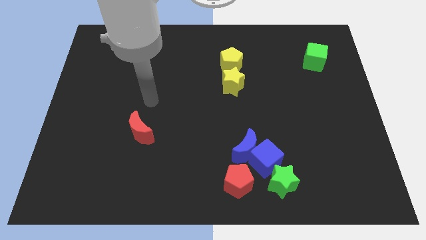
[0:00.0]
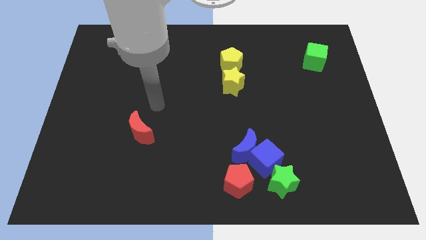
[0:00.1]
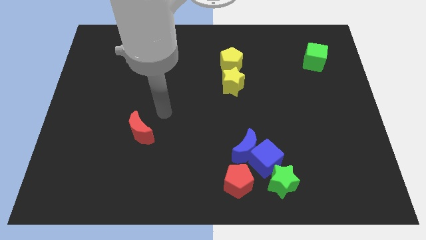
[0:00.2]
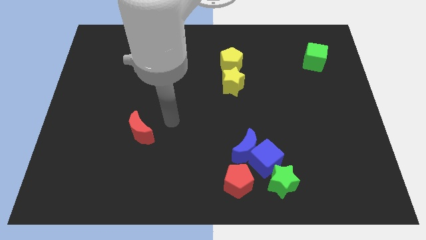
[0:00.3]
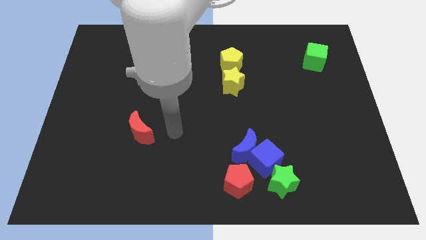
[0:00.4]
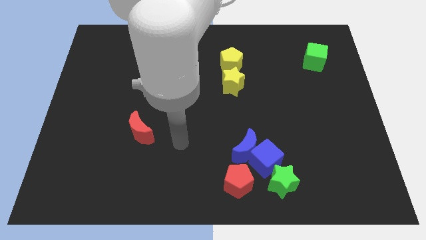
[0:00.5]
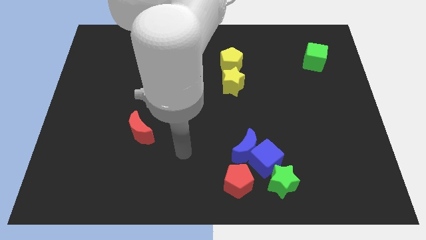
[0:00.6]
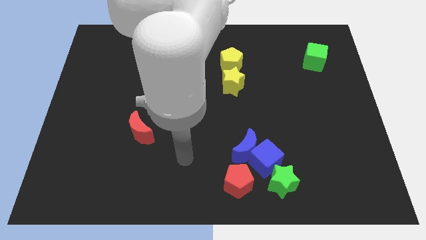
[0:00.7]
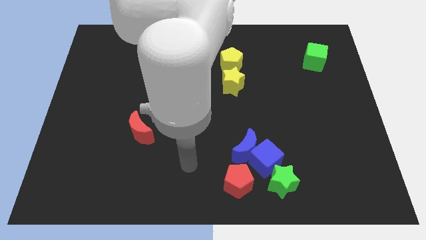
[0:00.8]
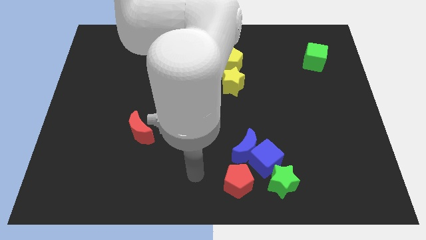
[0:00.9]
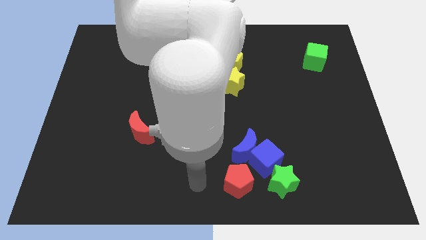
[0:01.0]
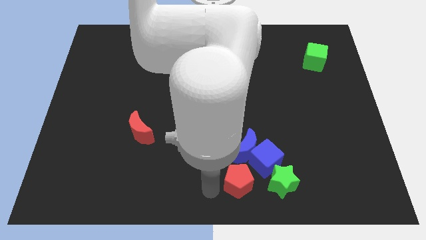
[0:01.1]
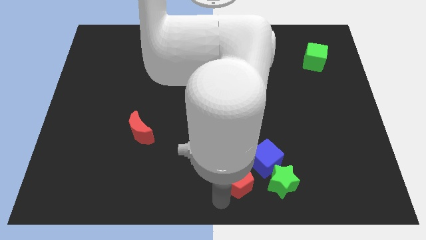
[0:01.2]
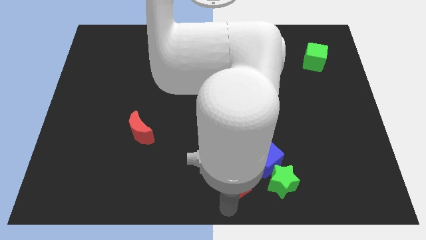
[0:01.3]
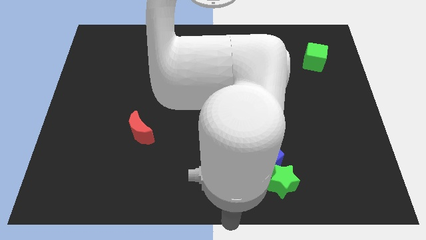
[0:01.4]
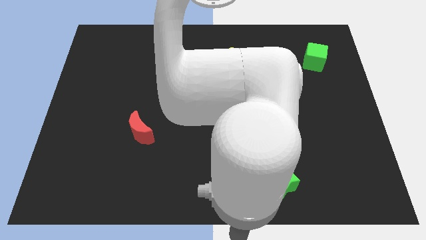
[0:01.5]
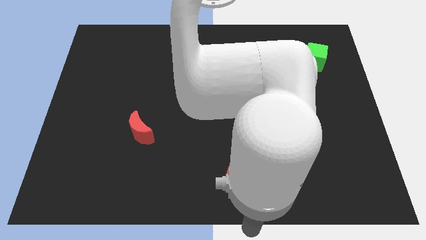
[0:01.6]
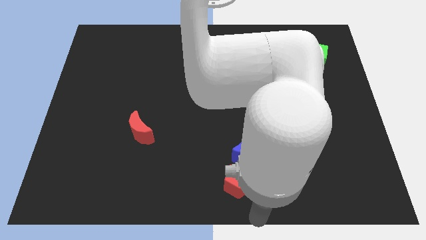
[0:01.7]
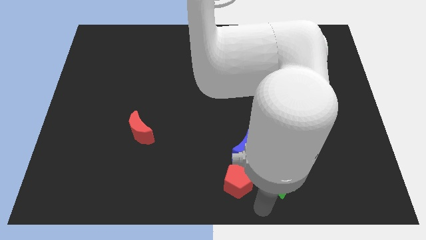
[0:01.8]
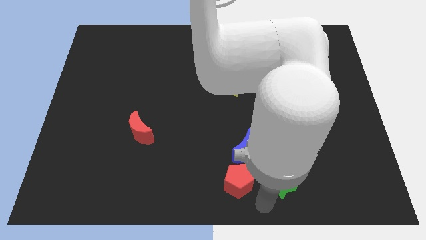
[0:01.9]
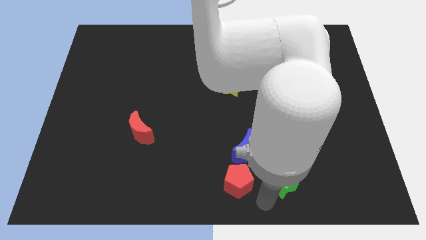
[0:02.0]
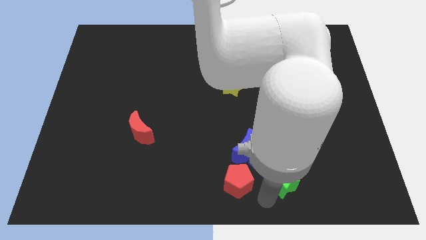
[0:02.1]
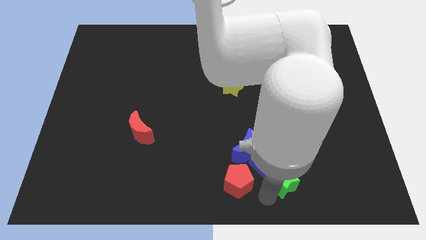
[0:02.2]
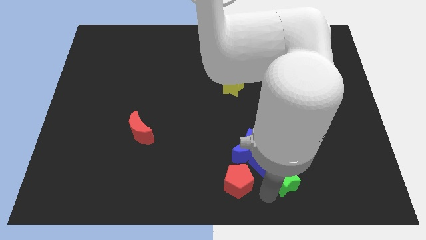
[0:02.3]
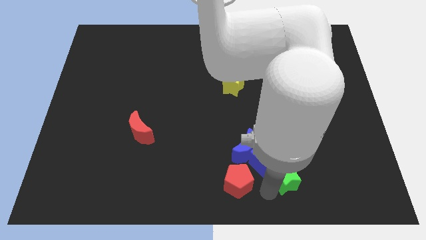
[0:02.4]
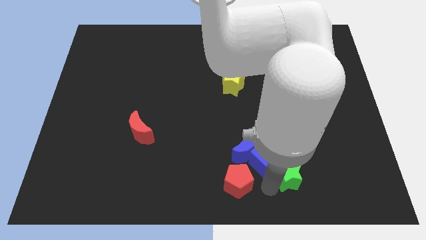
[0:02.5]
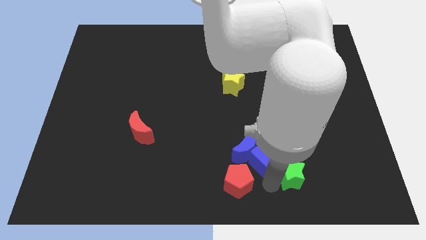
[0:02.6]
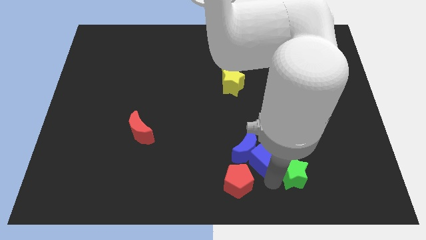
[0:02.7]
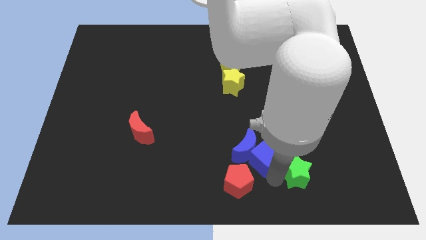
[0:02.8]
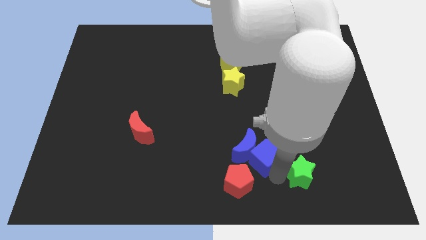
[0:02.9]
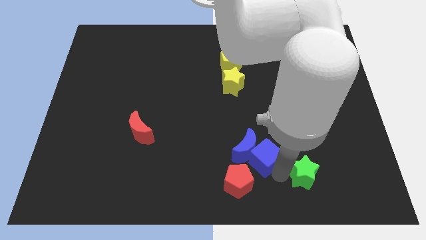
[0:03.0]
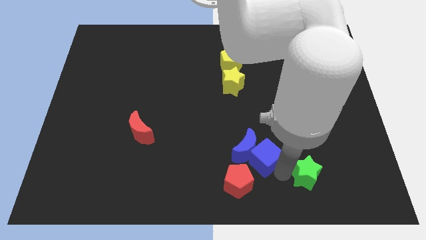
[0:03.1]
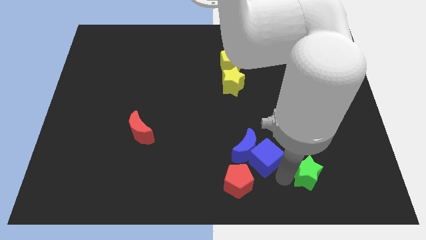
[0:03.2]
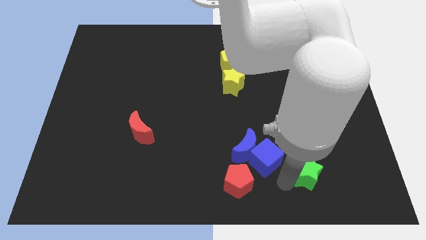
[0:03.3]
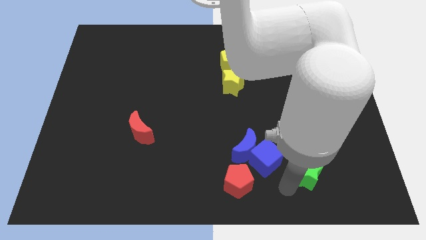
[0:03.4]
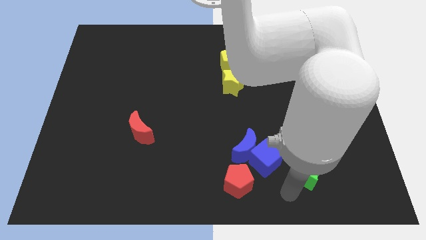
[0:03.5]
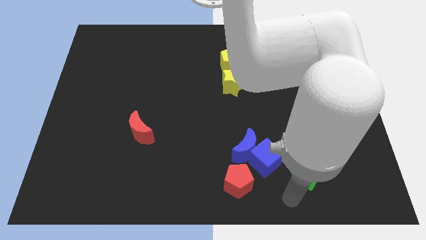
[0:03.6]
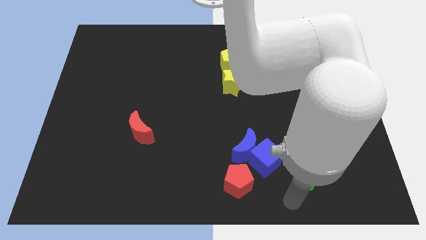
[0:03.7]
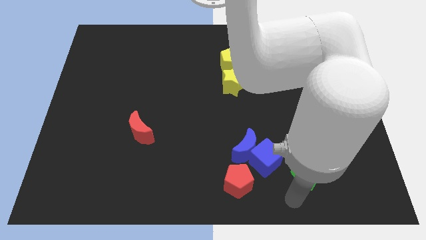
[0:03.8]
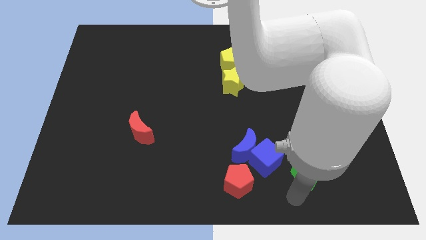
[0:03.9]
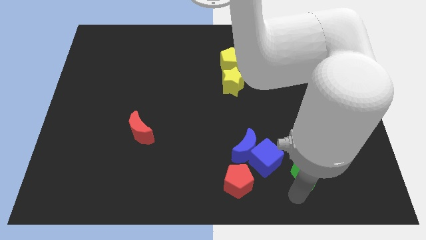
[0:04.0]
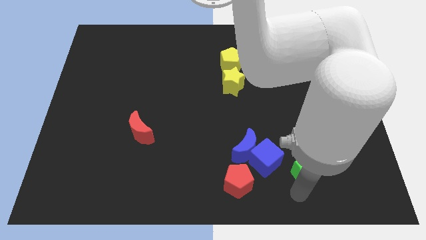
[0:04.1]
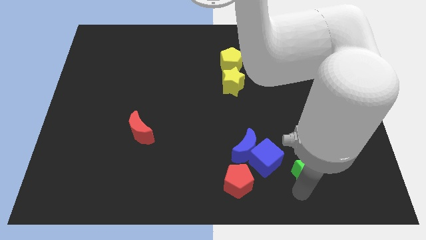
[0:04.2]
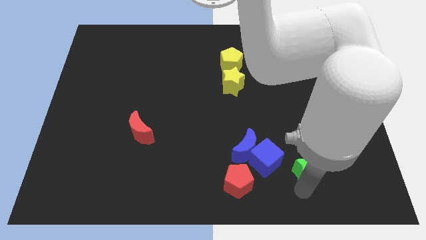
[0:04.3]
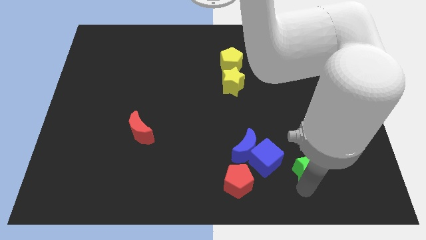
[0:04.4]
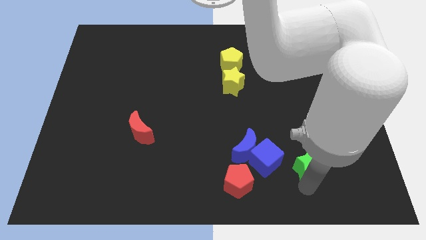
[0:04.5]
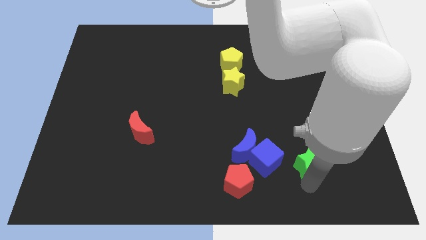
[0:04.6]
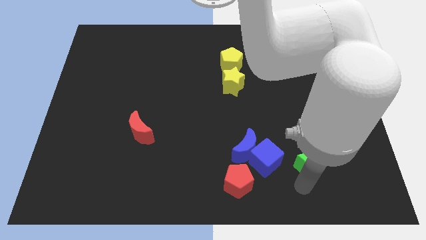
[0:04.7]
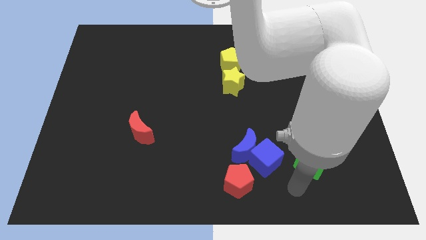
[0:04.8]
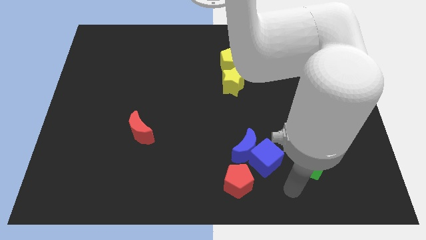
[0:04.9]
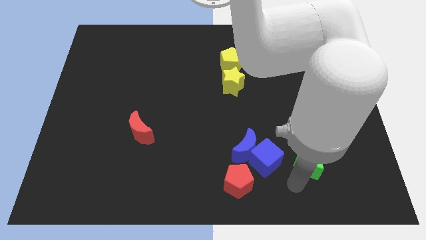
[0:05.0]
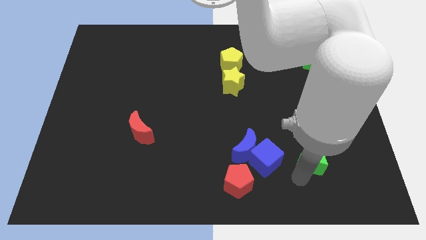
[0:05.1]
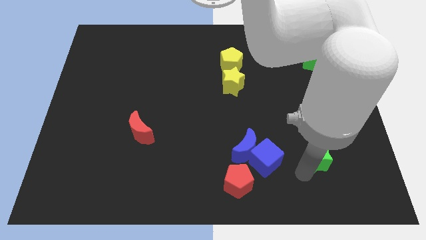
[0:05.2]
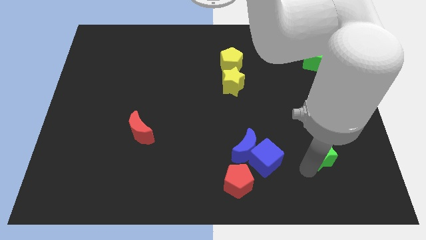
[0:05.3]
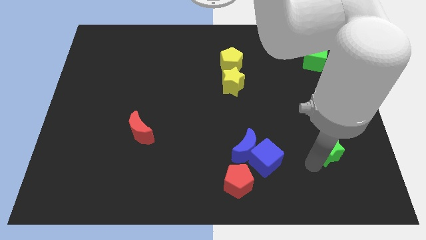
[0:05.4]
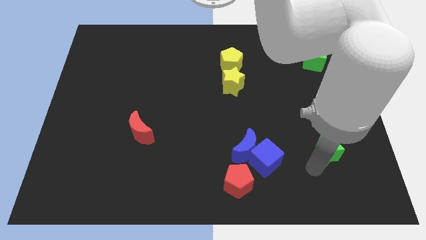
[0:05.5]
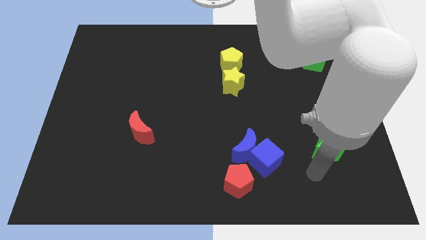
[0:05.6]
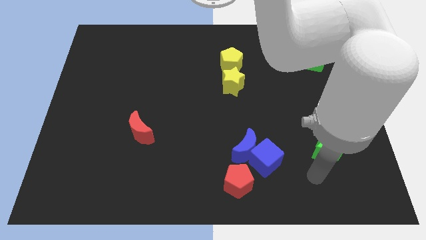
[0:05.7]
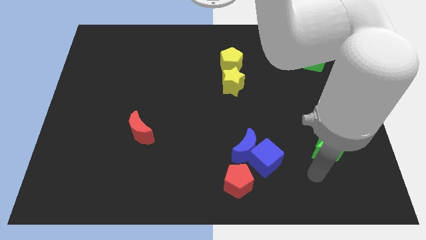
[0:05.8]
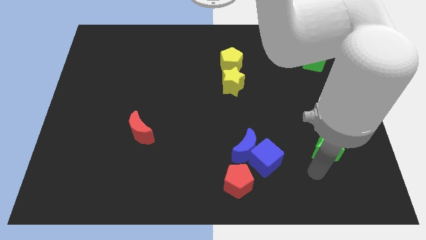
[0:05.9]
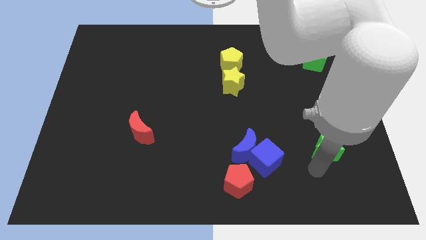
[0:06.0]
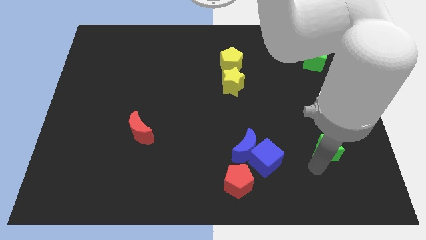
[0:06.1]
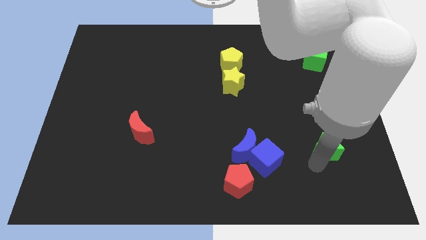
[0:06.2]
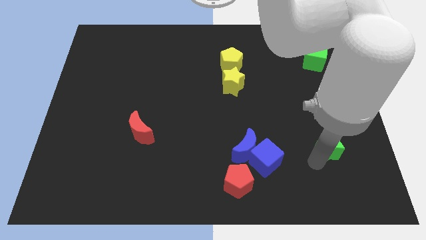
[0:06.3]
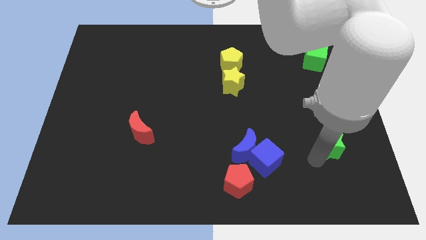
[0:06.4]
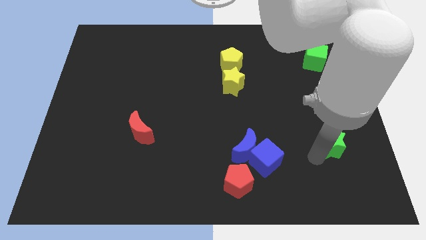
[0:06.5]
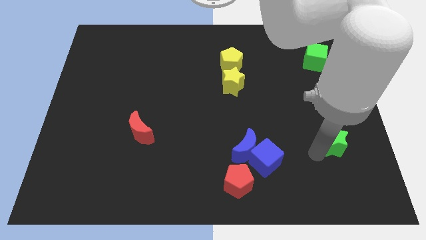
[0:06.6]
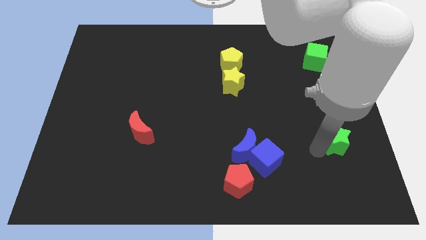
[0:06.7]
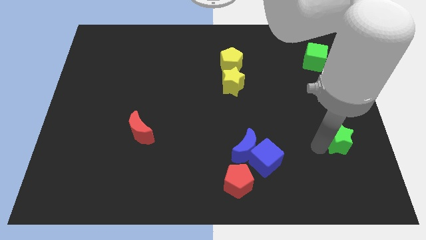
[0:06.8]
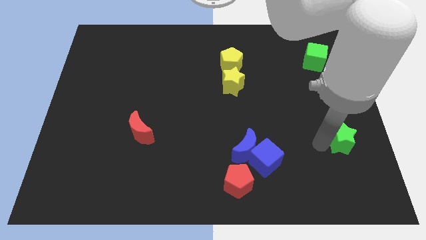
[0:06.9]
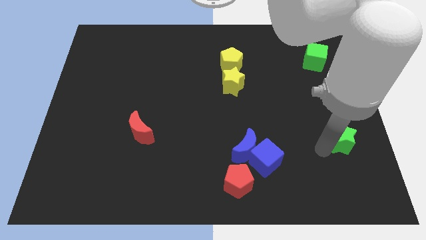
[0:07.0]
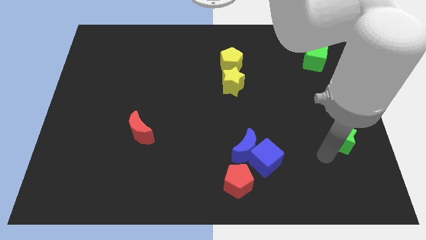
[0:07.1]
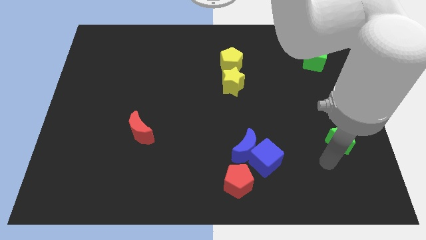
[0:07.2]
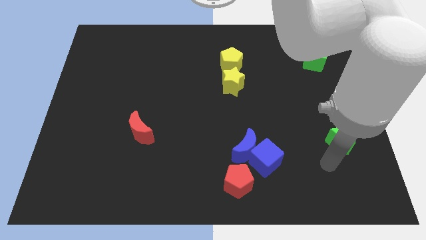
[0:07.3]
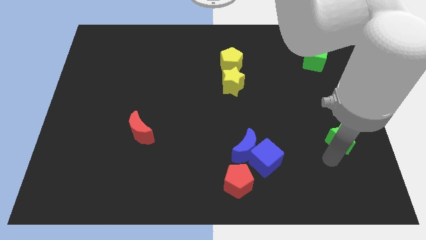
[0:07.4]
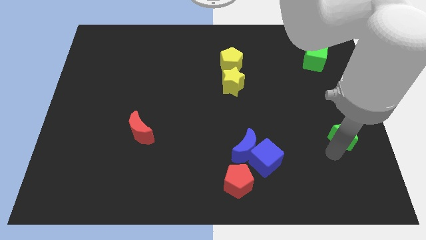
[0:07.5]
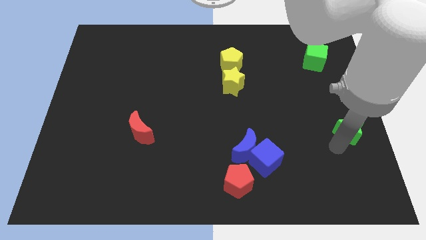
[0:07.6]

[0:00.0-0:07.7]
push the green star to the center right
